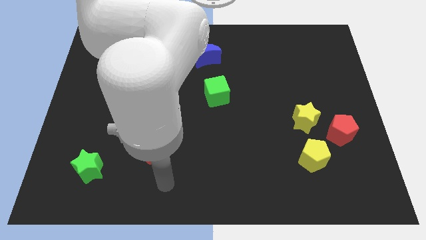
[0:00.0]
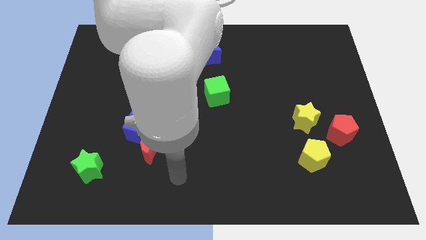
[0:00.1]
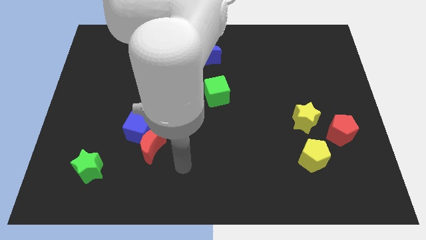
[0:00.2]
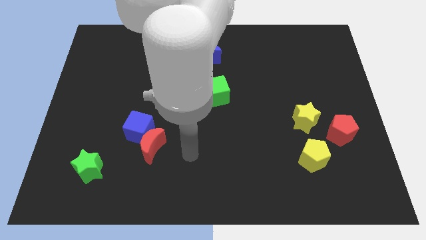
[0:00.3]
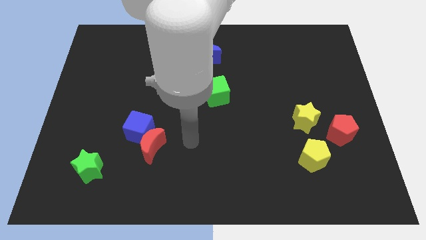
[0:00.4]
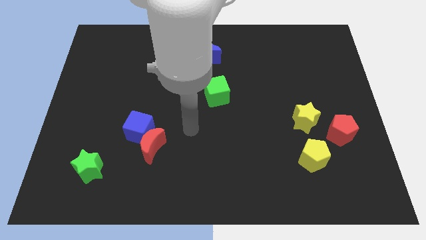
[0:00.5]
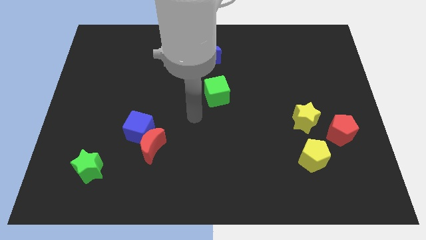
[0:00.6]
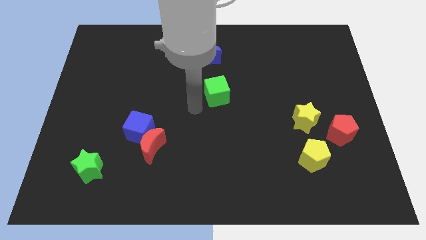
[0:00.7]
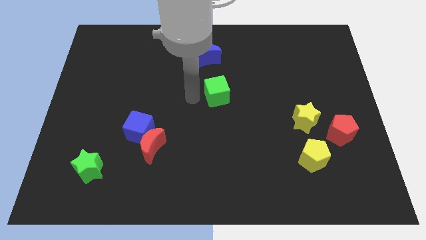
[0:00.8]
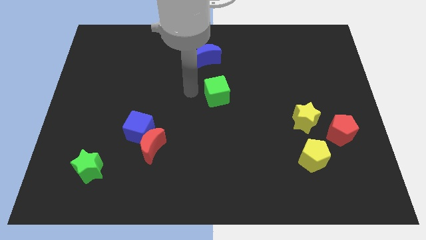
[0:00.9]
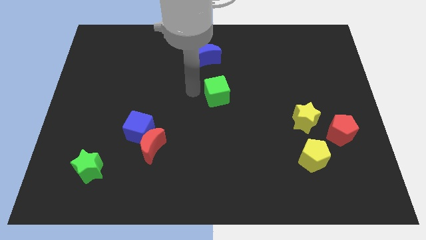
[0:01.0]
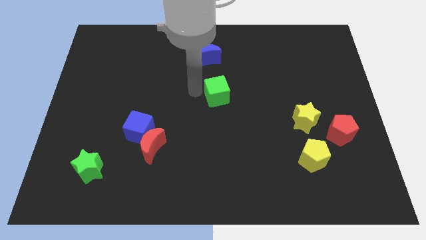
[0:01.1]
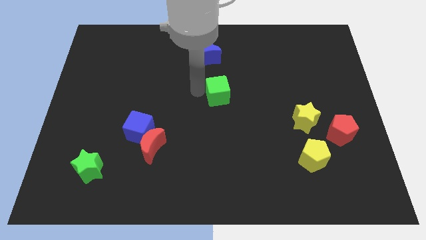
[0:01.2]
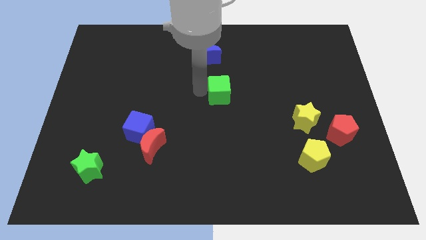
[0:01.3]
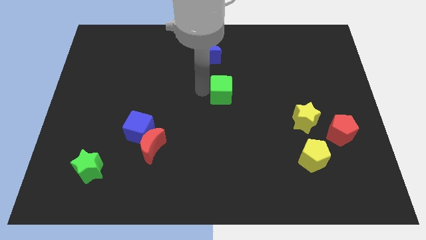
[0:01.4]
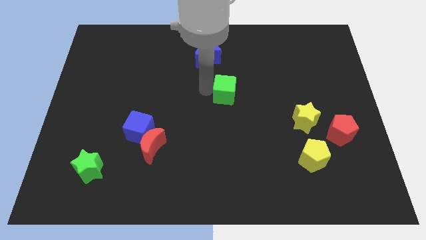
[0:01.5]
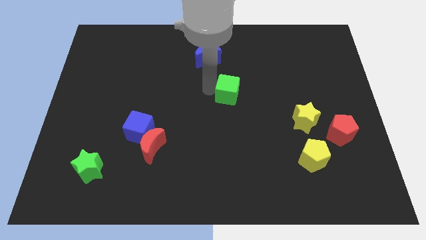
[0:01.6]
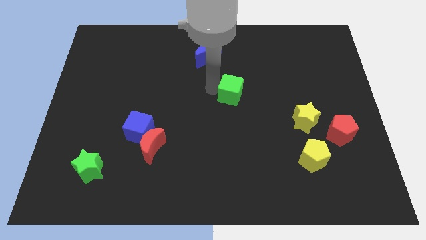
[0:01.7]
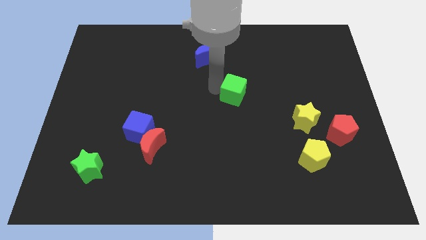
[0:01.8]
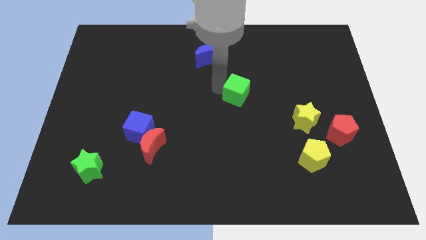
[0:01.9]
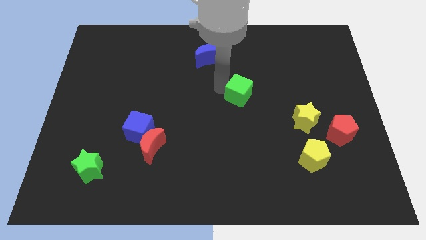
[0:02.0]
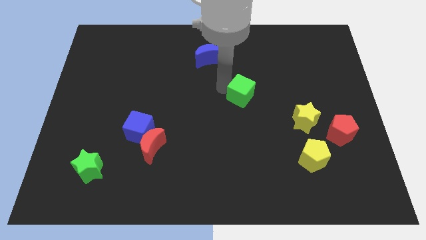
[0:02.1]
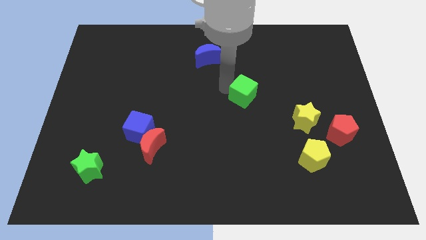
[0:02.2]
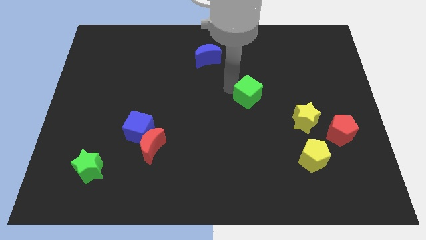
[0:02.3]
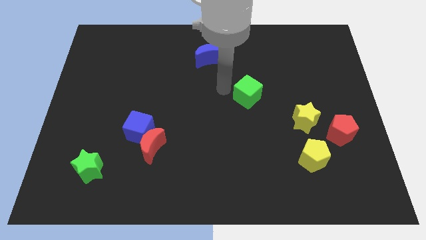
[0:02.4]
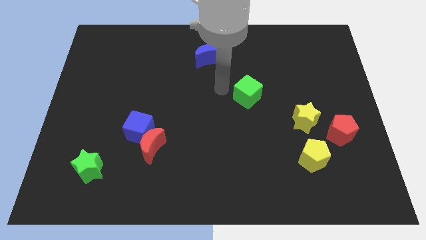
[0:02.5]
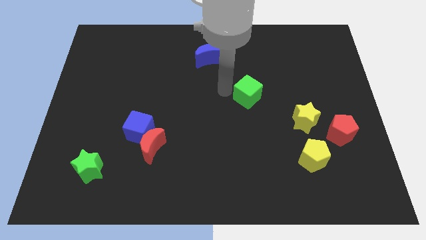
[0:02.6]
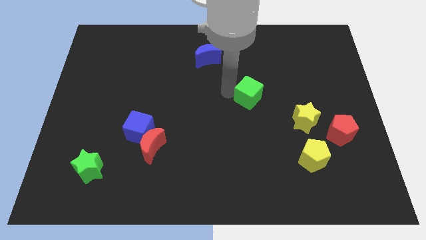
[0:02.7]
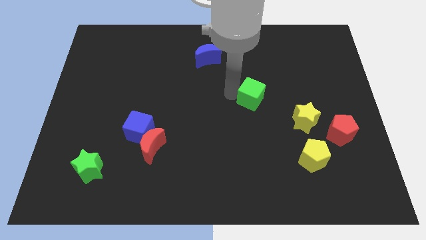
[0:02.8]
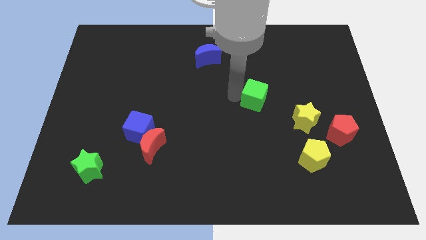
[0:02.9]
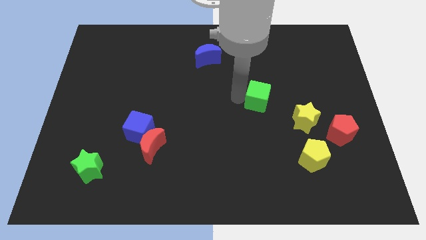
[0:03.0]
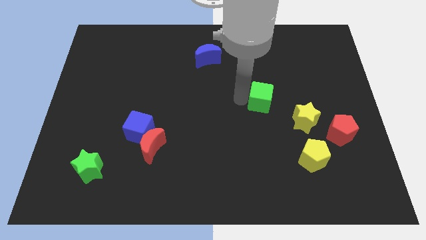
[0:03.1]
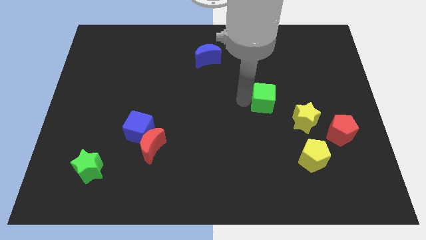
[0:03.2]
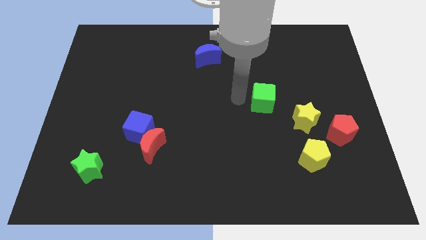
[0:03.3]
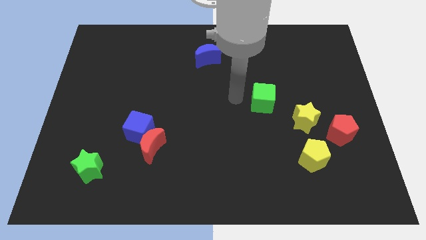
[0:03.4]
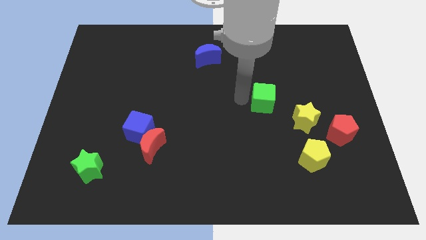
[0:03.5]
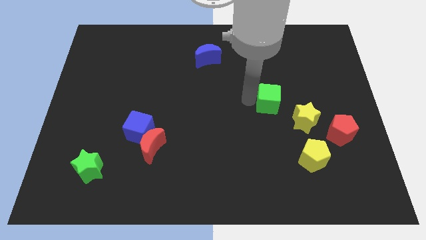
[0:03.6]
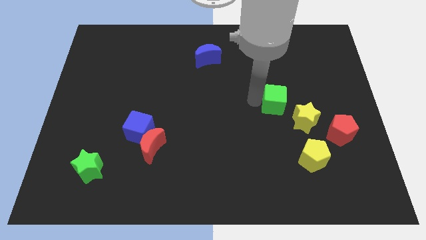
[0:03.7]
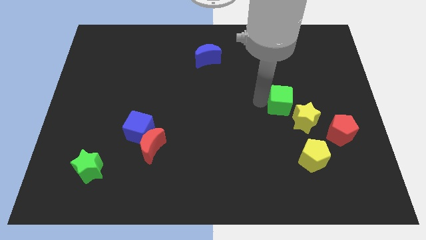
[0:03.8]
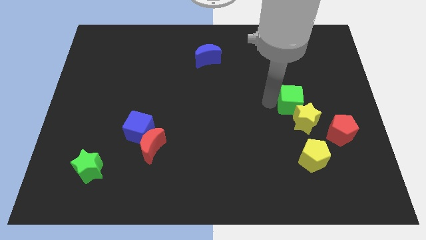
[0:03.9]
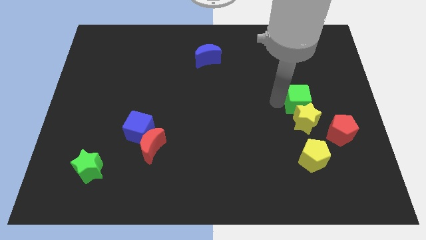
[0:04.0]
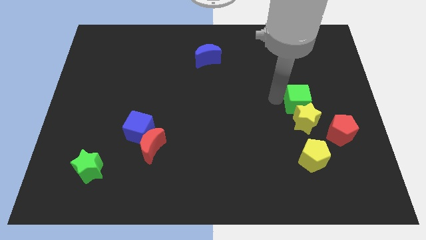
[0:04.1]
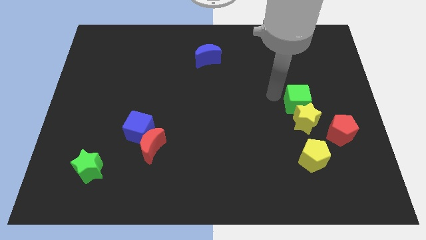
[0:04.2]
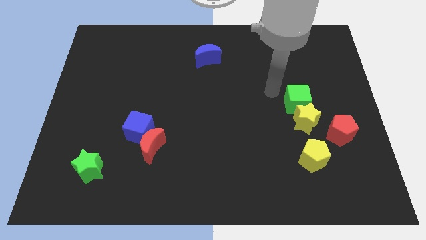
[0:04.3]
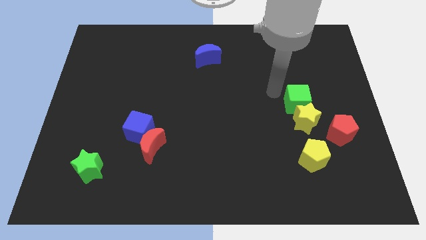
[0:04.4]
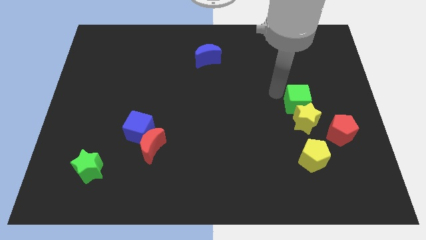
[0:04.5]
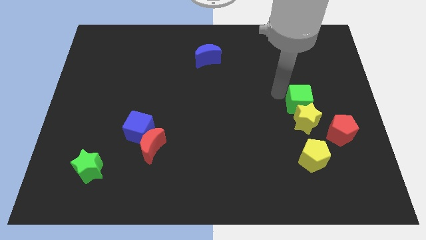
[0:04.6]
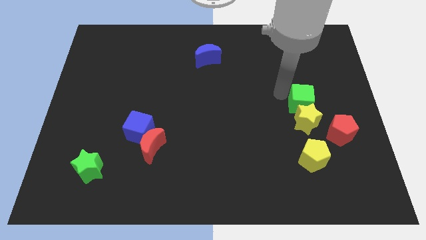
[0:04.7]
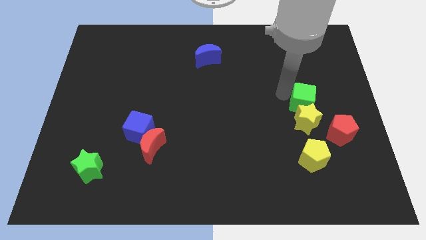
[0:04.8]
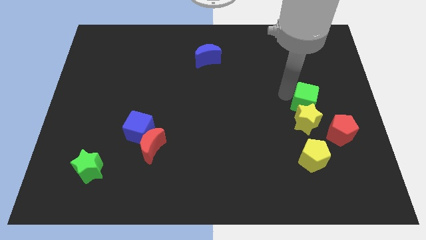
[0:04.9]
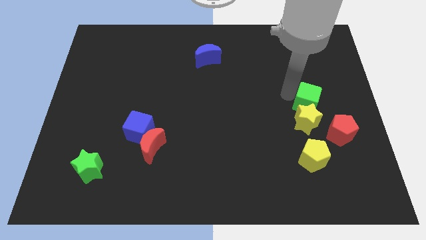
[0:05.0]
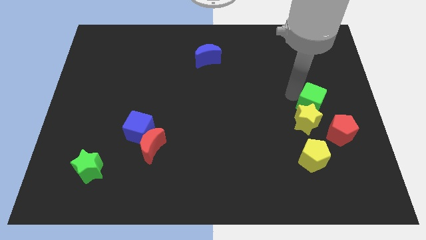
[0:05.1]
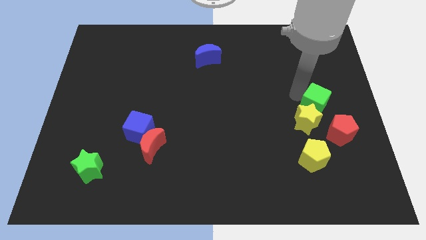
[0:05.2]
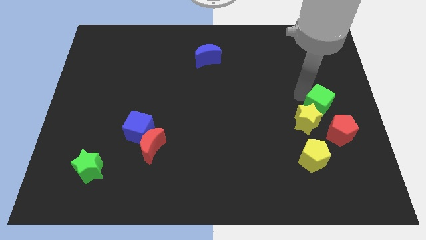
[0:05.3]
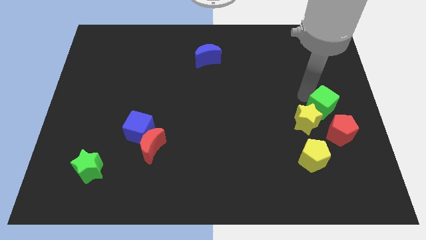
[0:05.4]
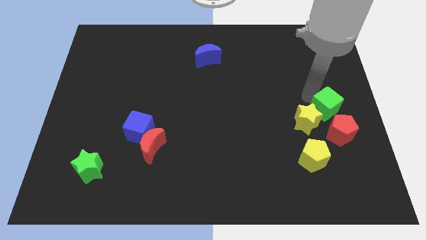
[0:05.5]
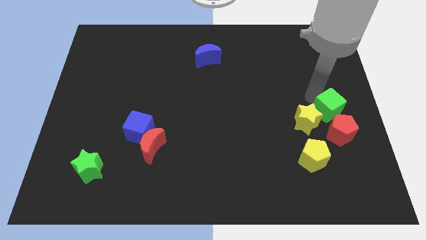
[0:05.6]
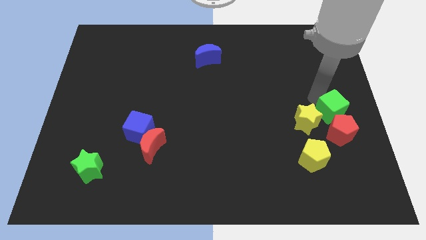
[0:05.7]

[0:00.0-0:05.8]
push the green cube towards the red pentagon

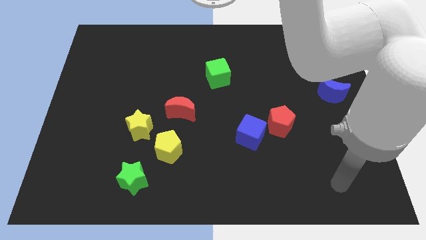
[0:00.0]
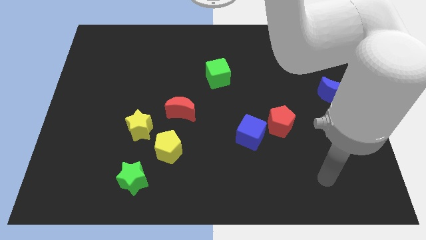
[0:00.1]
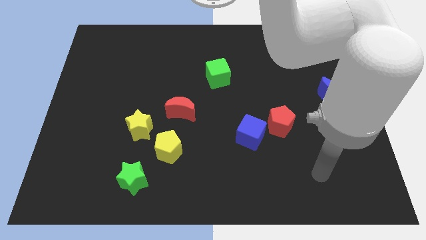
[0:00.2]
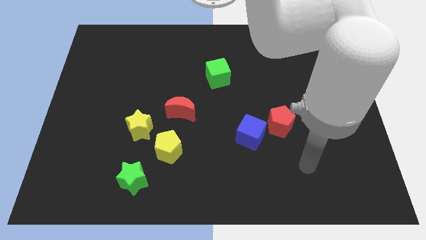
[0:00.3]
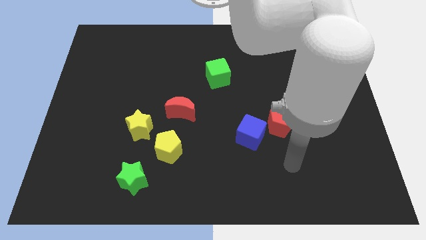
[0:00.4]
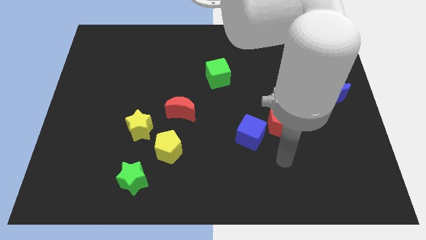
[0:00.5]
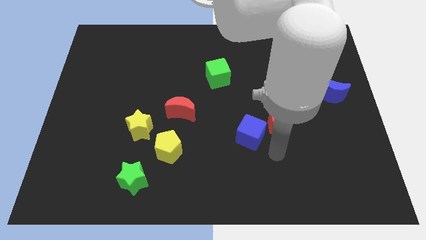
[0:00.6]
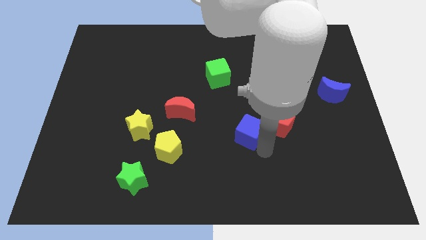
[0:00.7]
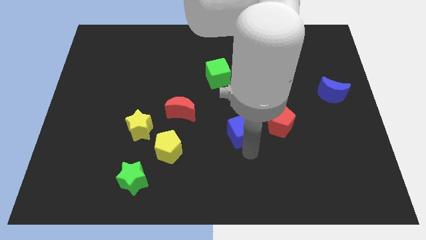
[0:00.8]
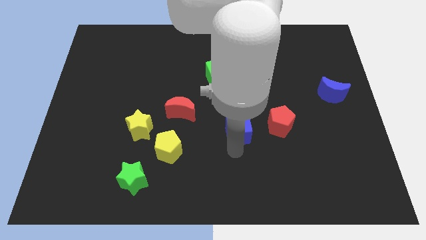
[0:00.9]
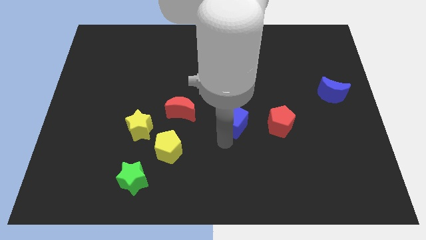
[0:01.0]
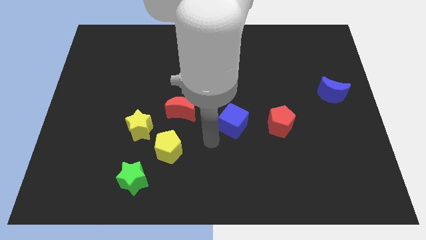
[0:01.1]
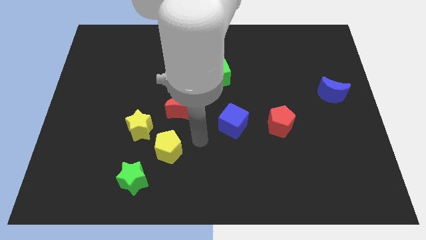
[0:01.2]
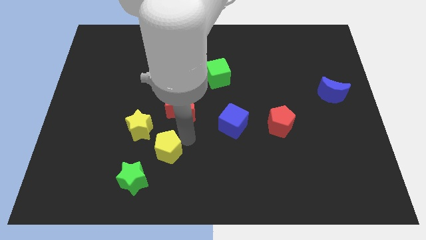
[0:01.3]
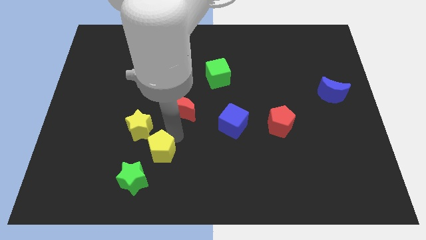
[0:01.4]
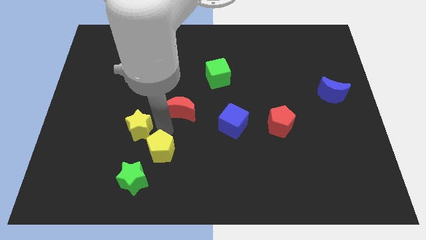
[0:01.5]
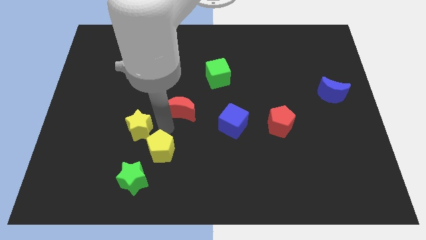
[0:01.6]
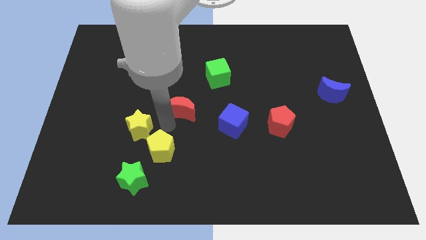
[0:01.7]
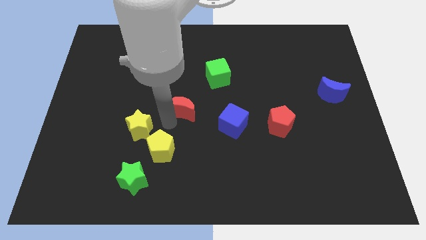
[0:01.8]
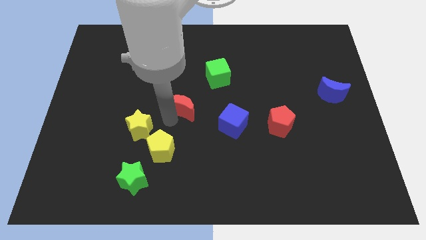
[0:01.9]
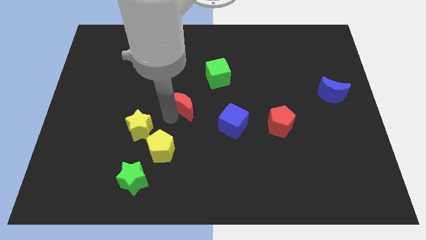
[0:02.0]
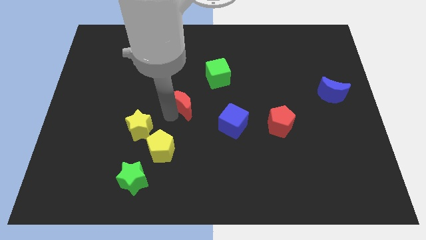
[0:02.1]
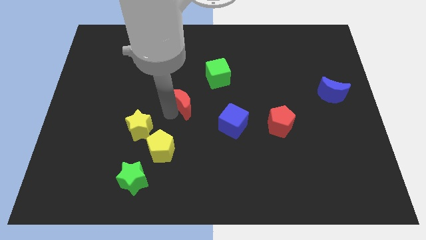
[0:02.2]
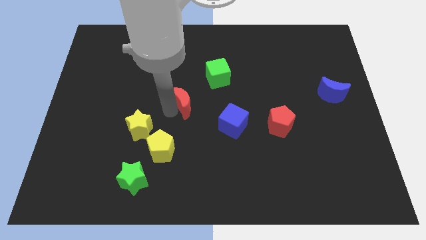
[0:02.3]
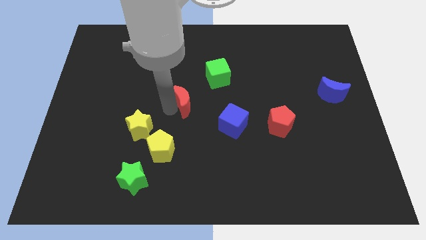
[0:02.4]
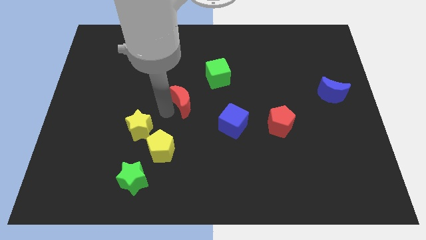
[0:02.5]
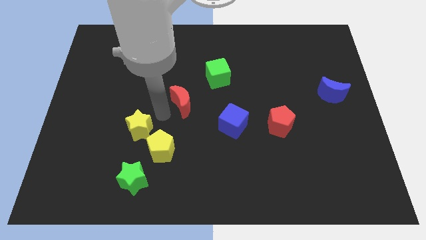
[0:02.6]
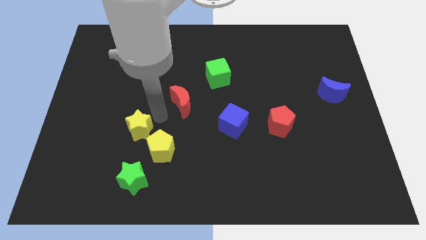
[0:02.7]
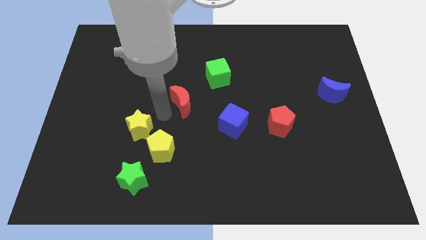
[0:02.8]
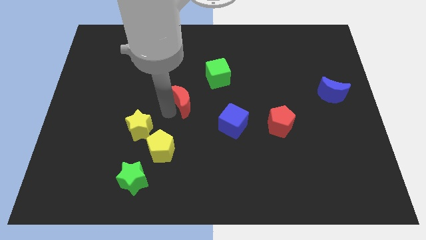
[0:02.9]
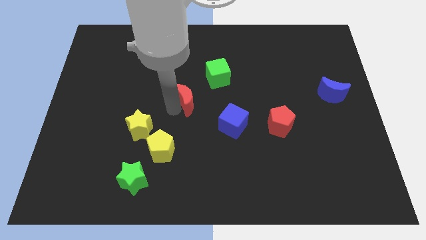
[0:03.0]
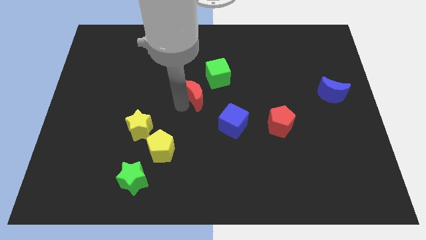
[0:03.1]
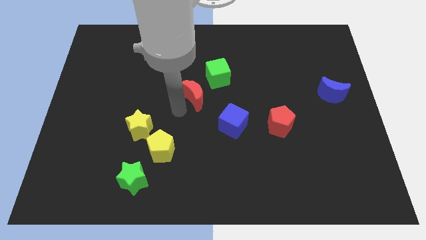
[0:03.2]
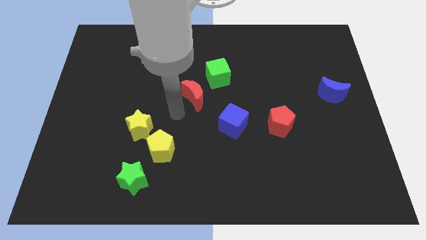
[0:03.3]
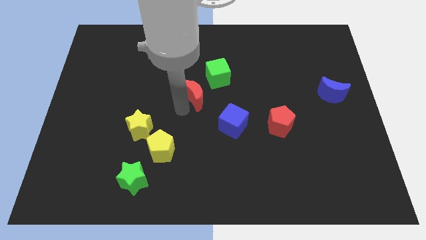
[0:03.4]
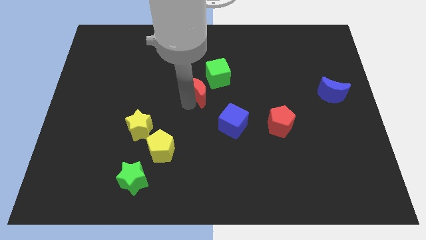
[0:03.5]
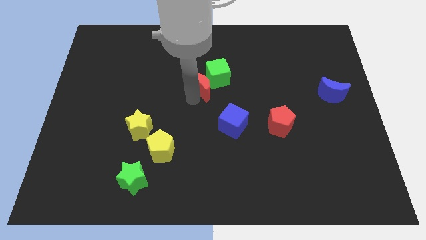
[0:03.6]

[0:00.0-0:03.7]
move the red moon close to the green cube
